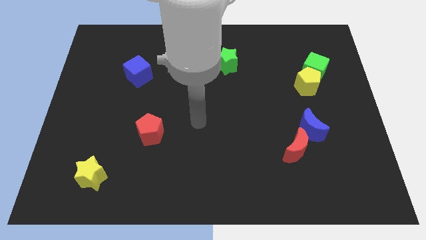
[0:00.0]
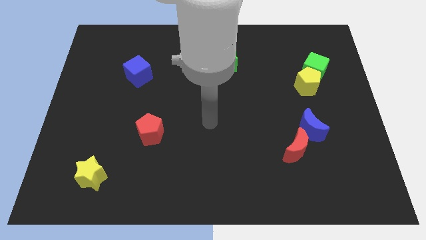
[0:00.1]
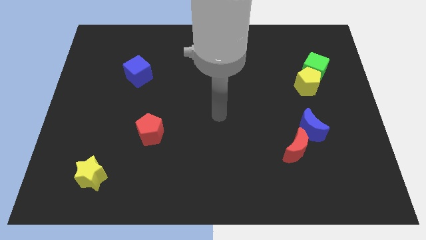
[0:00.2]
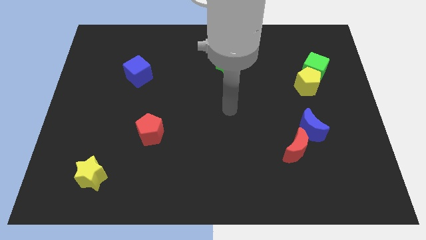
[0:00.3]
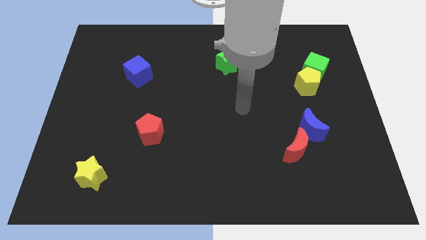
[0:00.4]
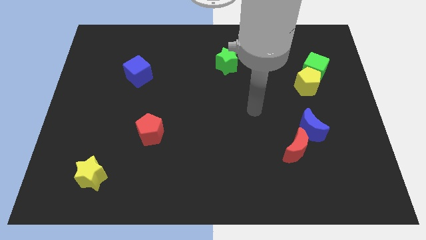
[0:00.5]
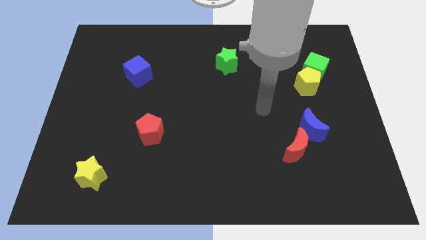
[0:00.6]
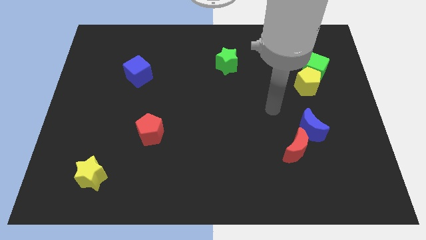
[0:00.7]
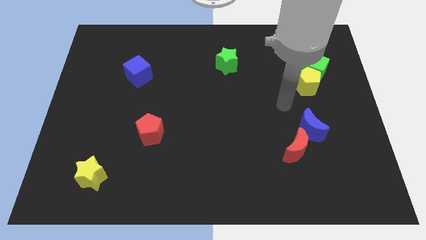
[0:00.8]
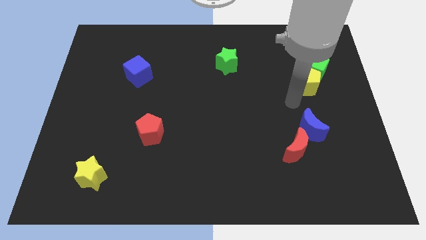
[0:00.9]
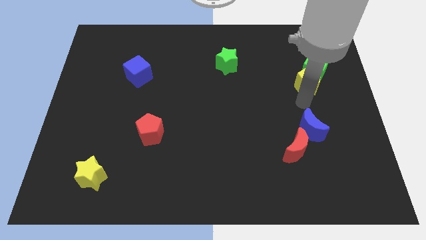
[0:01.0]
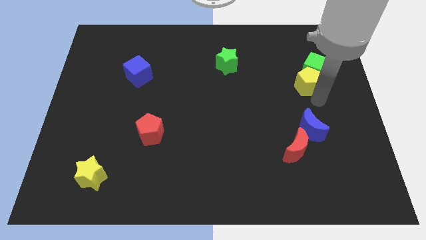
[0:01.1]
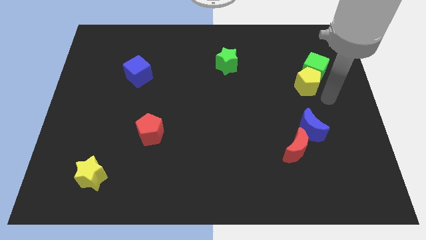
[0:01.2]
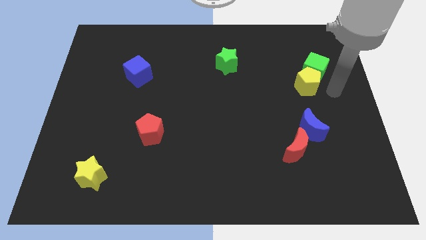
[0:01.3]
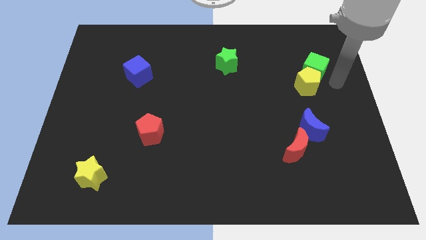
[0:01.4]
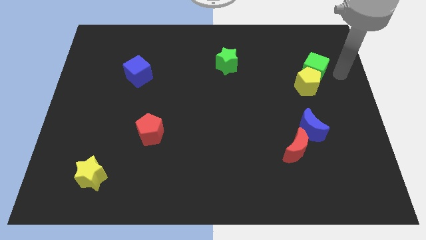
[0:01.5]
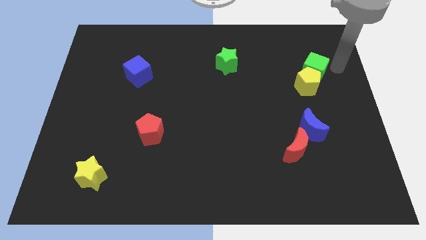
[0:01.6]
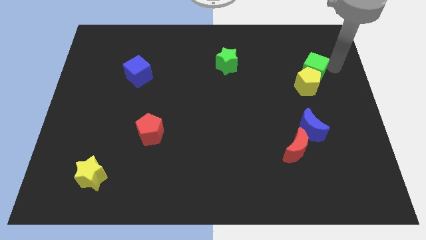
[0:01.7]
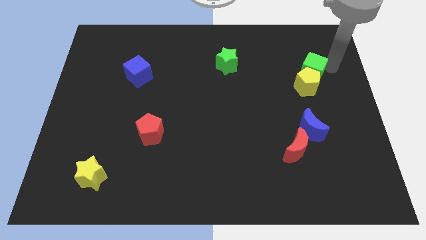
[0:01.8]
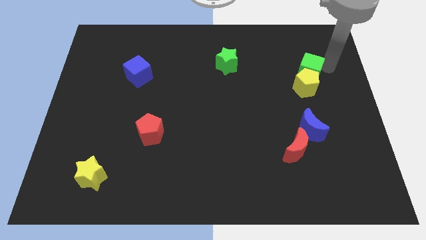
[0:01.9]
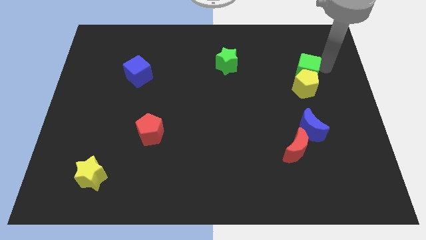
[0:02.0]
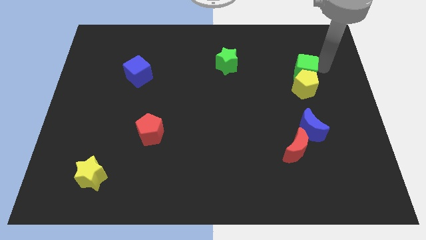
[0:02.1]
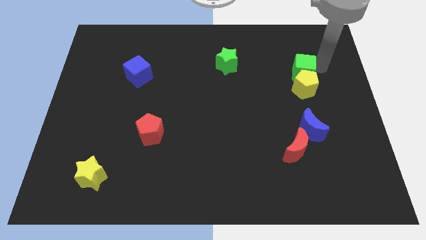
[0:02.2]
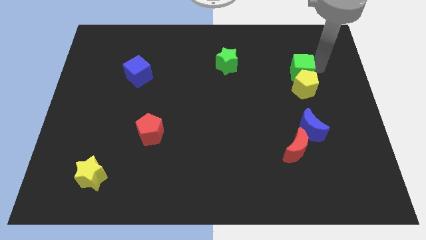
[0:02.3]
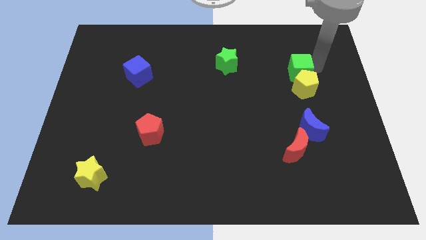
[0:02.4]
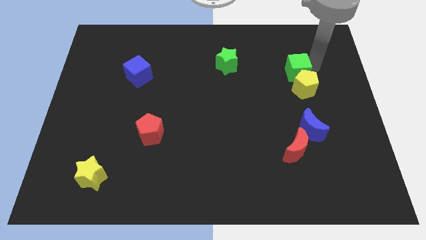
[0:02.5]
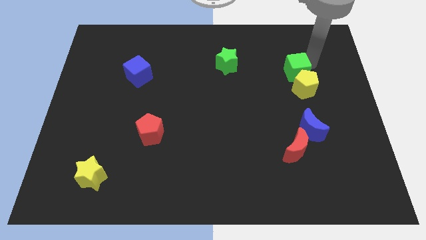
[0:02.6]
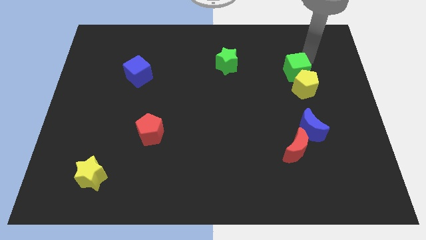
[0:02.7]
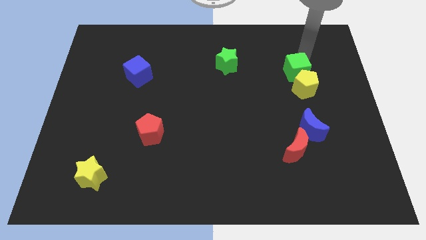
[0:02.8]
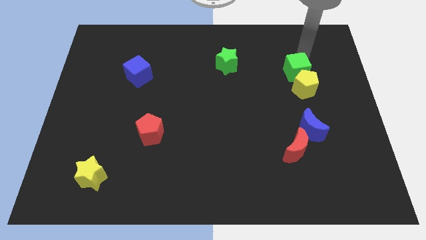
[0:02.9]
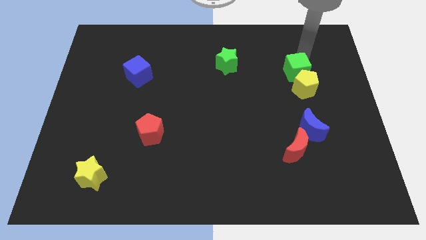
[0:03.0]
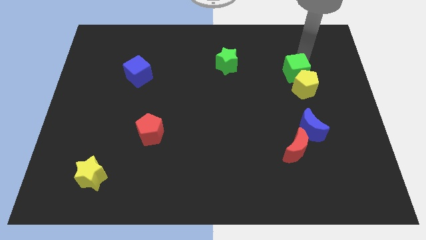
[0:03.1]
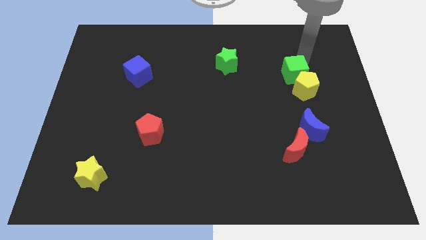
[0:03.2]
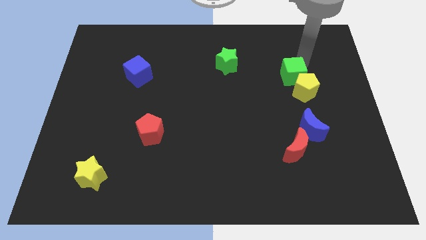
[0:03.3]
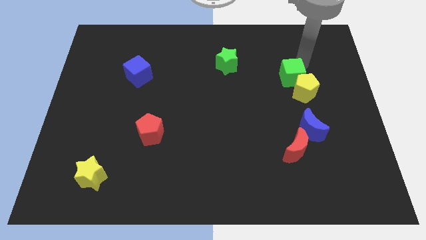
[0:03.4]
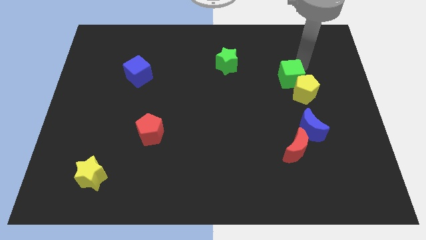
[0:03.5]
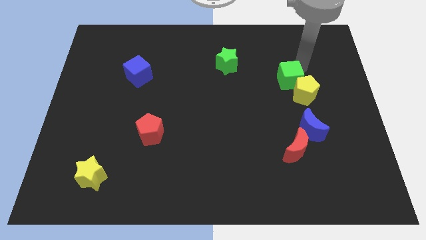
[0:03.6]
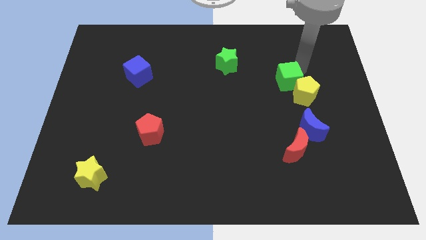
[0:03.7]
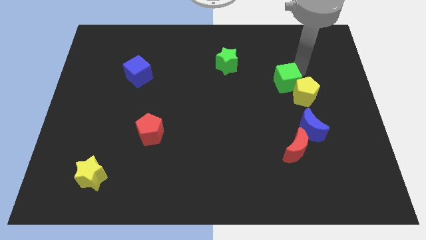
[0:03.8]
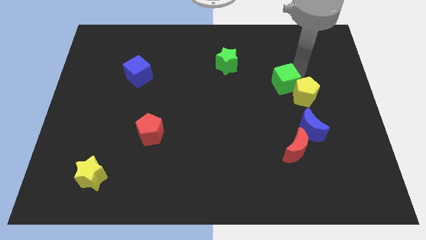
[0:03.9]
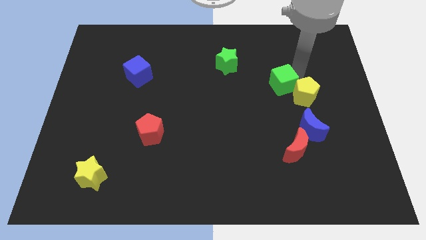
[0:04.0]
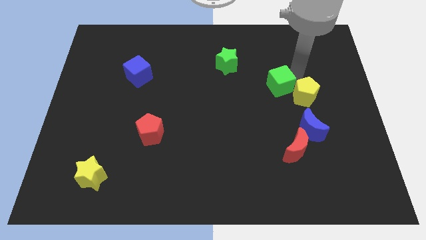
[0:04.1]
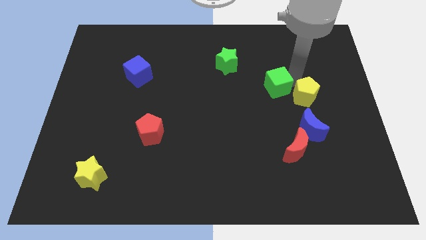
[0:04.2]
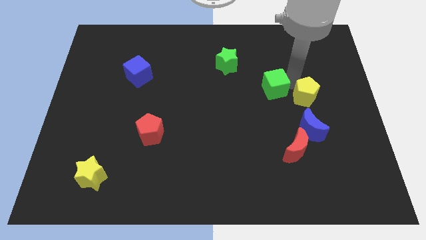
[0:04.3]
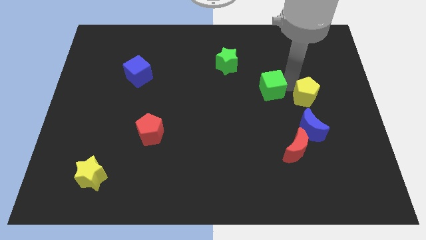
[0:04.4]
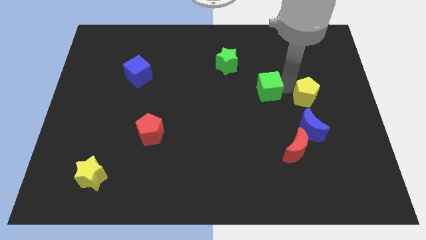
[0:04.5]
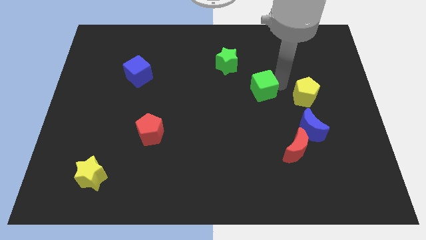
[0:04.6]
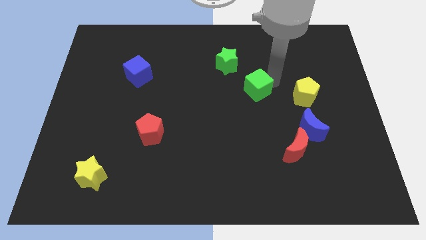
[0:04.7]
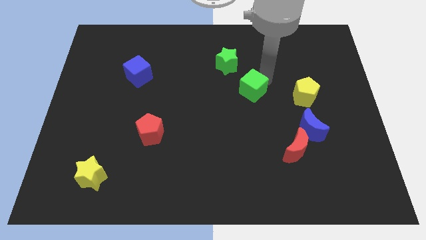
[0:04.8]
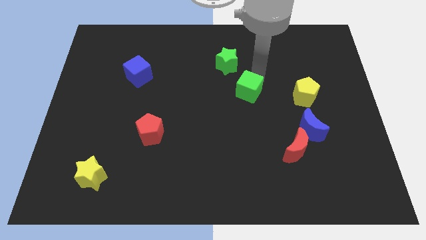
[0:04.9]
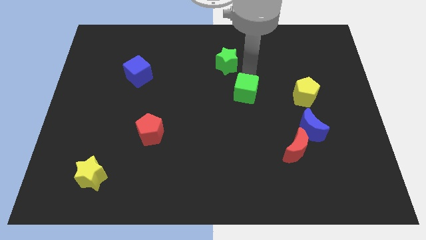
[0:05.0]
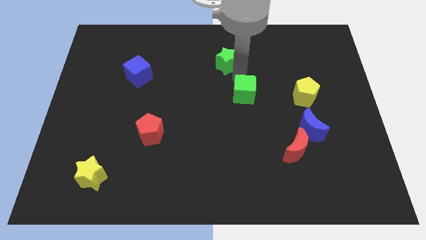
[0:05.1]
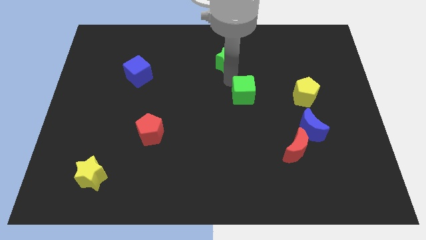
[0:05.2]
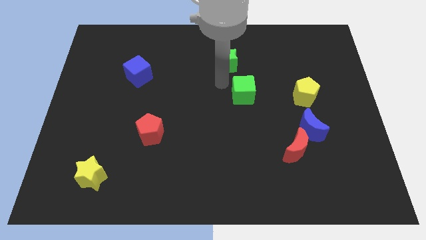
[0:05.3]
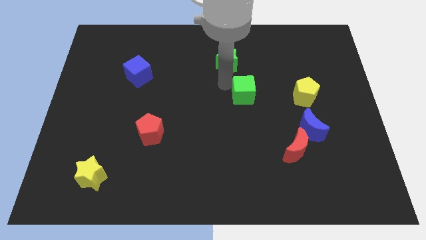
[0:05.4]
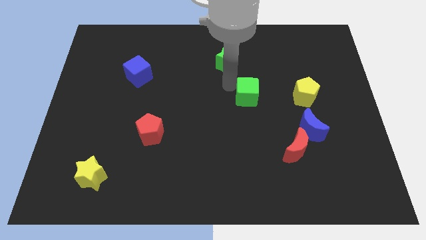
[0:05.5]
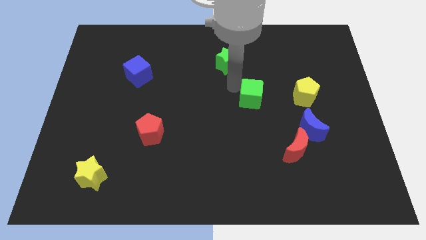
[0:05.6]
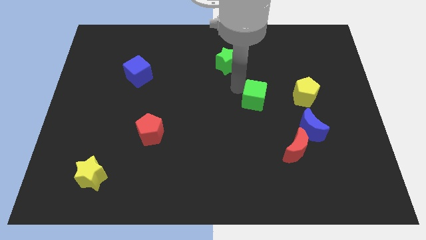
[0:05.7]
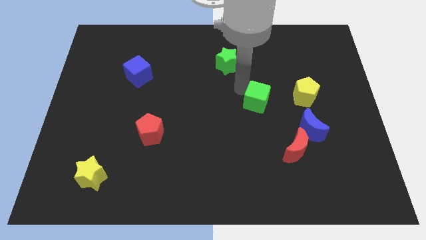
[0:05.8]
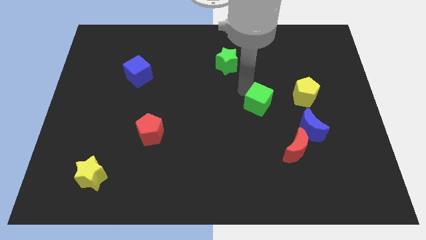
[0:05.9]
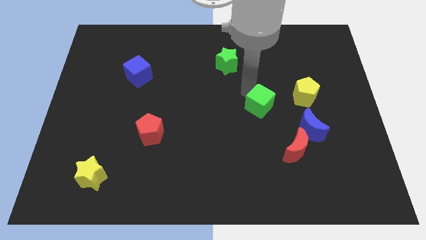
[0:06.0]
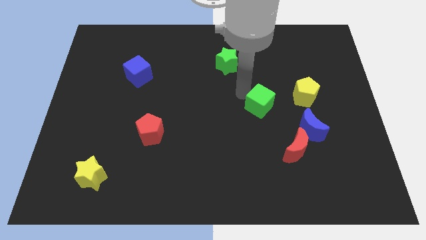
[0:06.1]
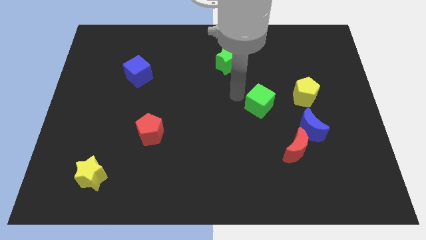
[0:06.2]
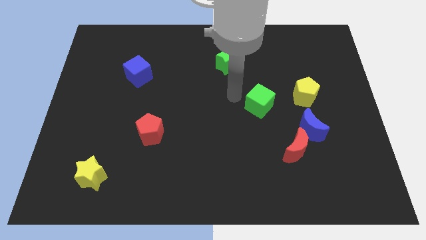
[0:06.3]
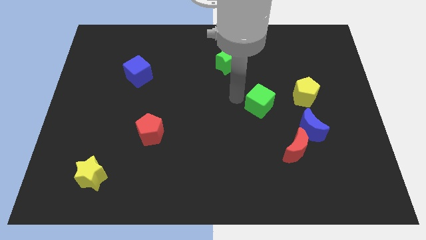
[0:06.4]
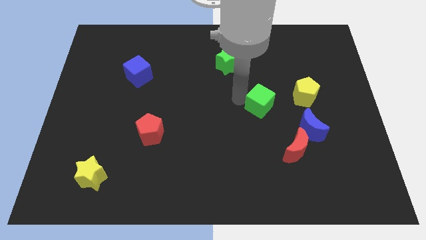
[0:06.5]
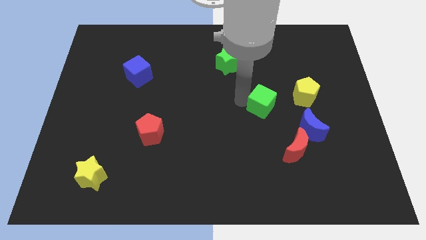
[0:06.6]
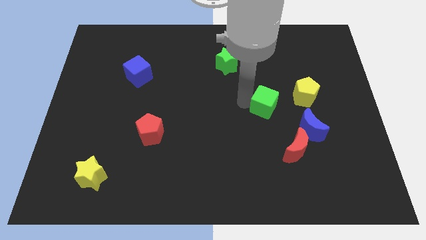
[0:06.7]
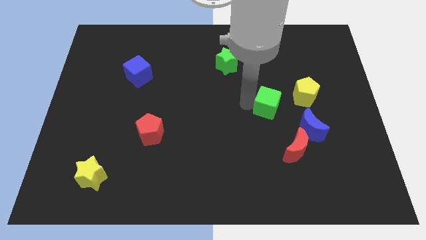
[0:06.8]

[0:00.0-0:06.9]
push the green cube to the bottom left of the yellow pentagon

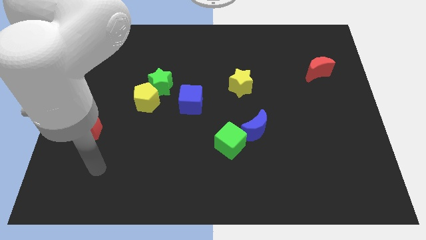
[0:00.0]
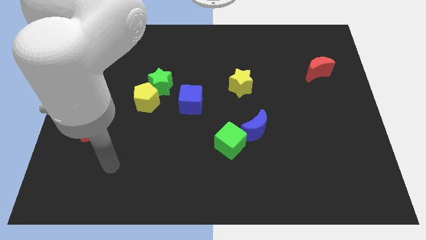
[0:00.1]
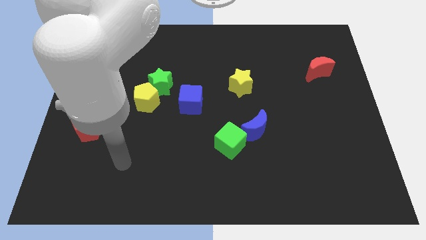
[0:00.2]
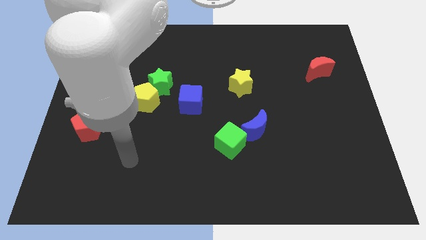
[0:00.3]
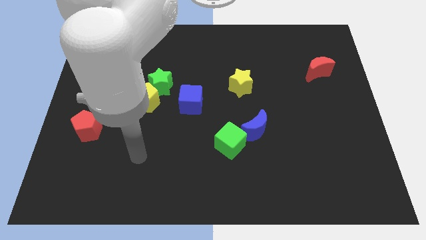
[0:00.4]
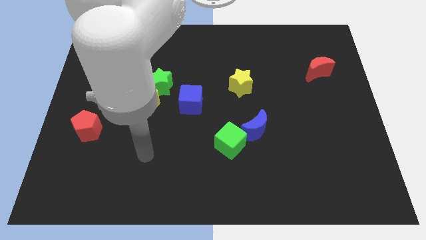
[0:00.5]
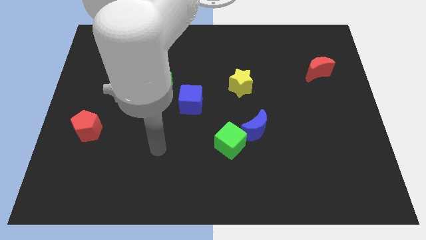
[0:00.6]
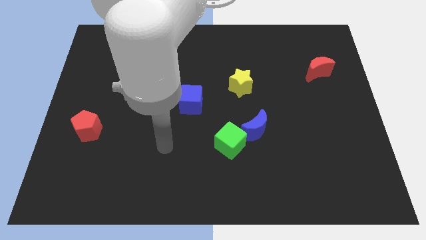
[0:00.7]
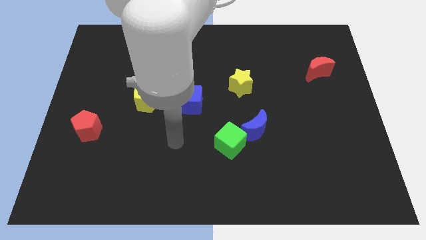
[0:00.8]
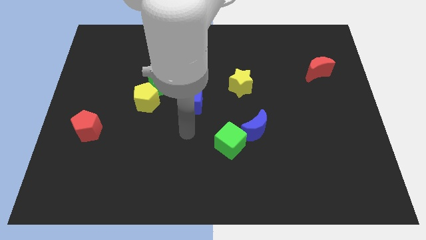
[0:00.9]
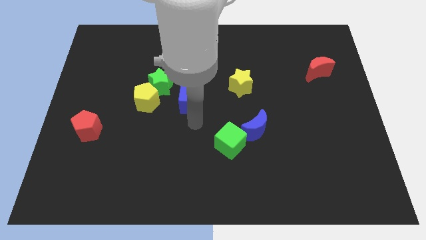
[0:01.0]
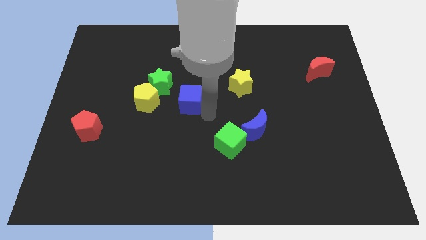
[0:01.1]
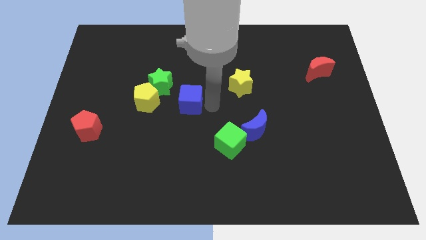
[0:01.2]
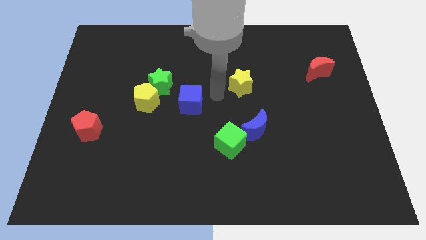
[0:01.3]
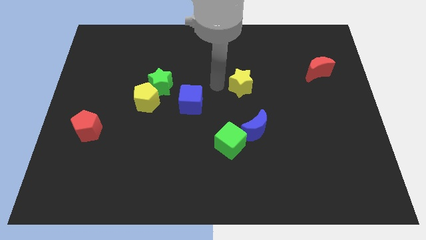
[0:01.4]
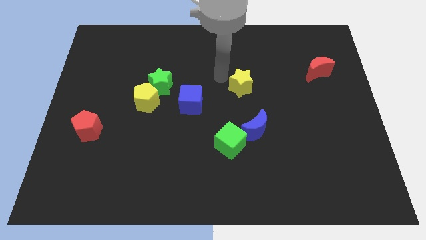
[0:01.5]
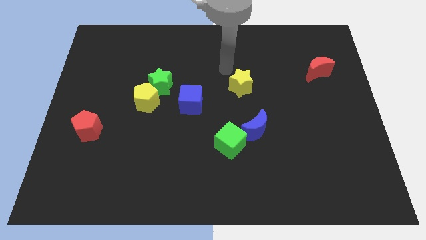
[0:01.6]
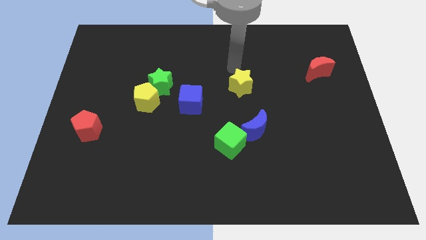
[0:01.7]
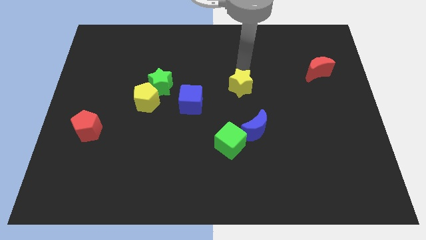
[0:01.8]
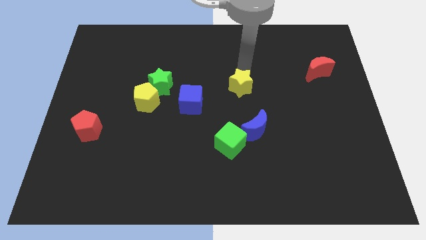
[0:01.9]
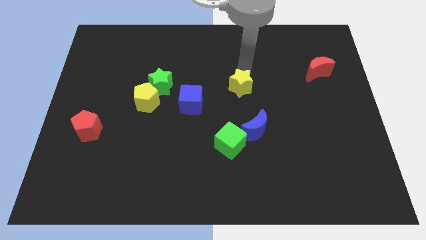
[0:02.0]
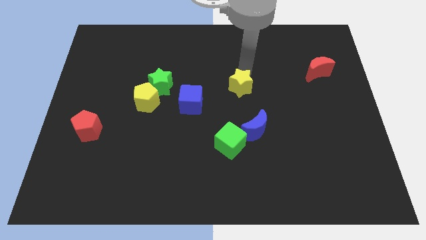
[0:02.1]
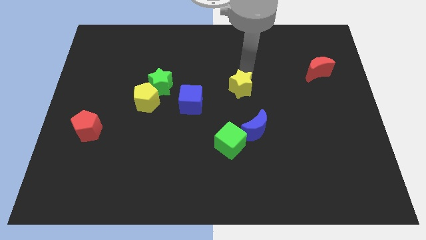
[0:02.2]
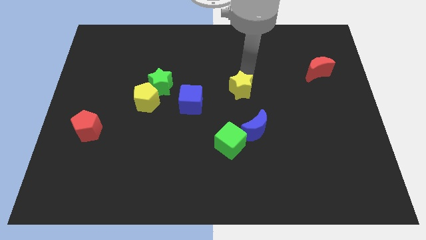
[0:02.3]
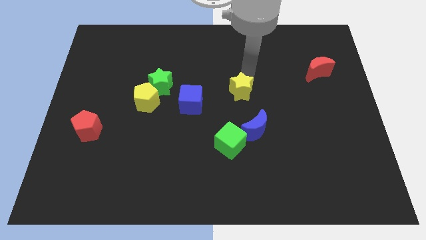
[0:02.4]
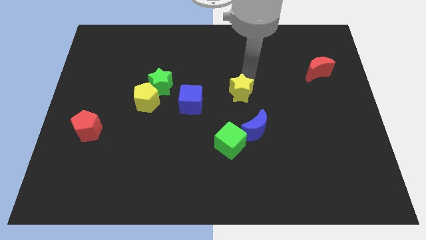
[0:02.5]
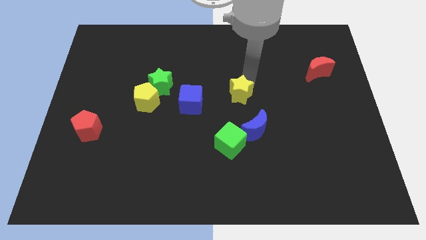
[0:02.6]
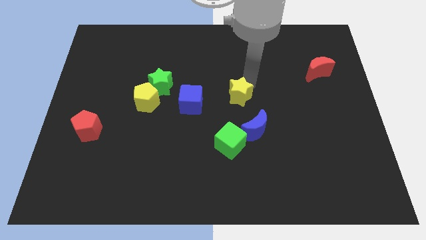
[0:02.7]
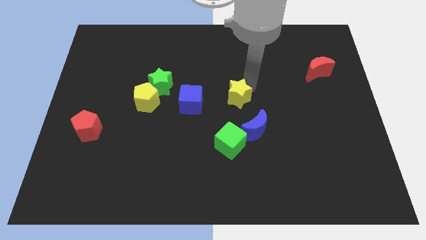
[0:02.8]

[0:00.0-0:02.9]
move the yellow star to the top left of the blue moon
